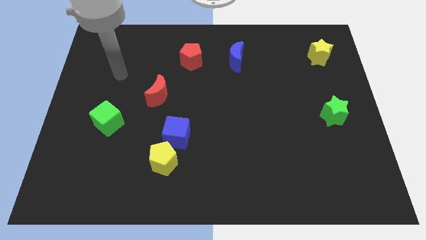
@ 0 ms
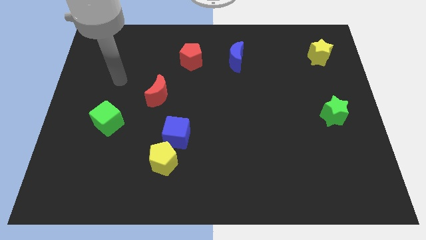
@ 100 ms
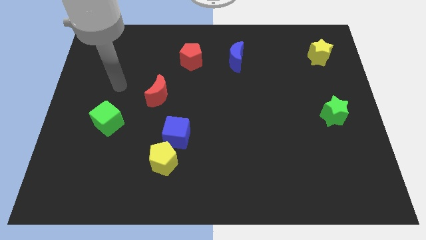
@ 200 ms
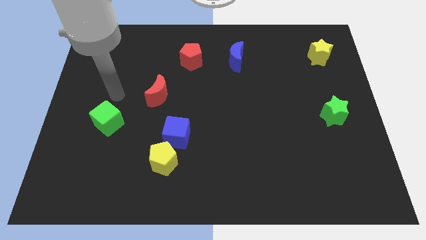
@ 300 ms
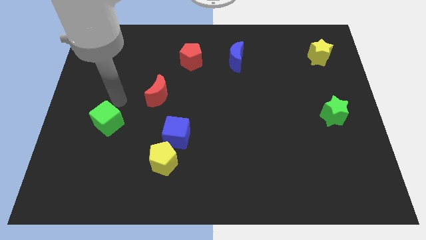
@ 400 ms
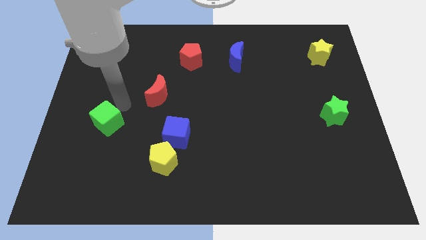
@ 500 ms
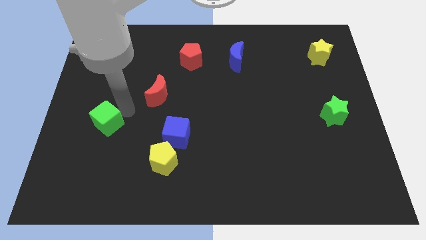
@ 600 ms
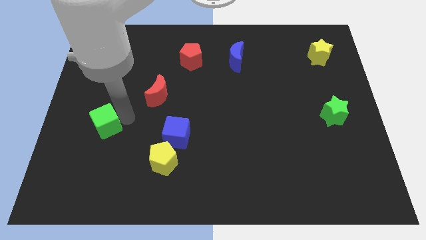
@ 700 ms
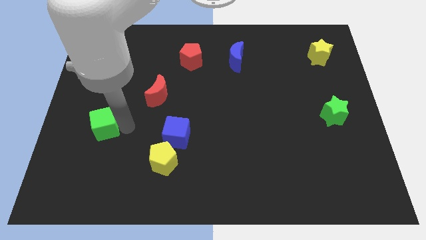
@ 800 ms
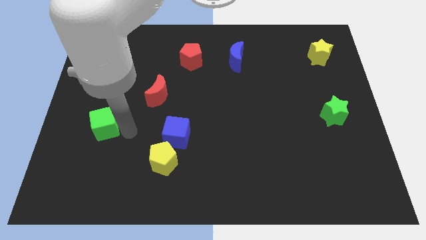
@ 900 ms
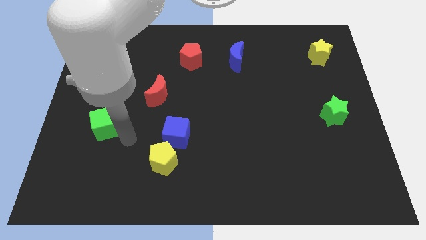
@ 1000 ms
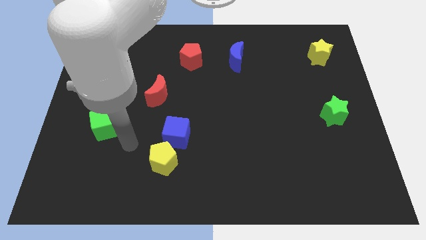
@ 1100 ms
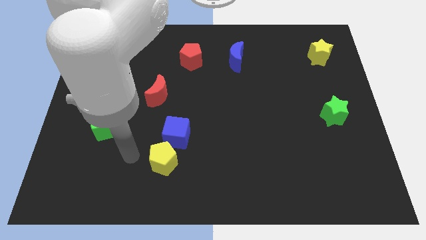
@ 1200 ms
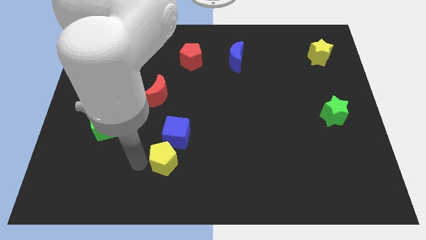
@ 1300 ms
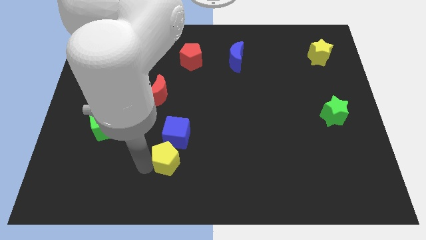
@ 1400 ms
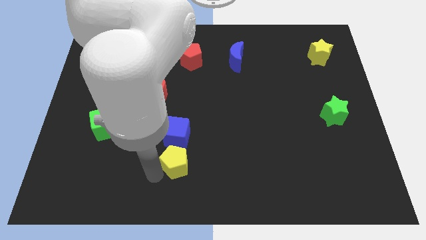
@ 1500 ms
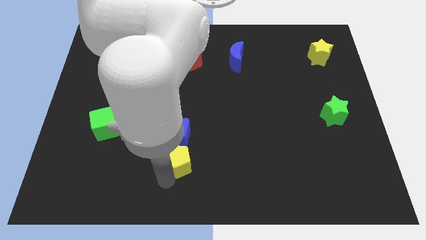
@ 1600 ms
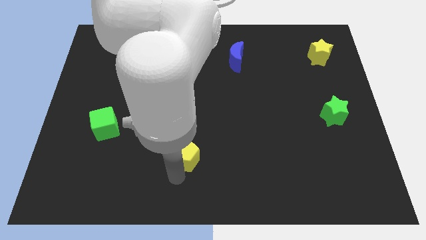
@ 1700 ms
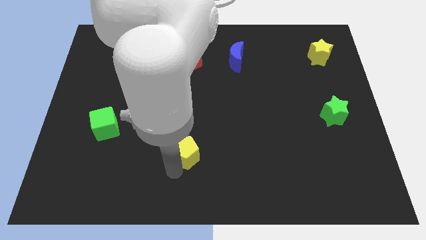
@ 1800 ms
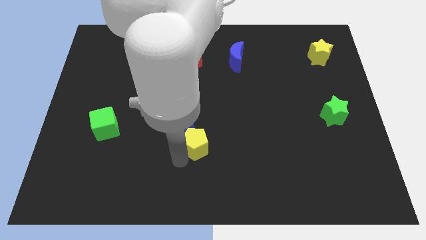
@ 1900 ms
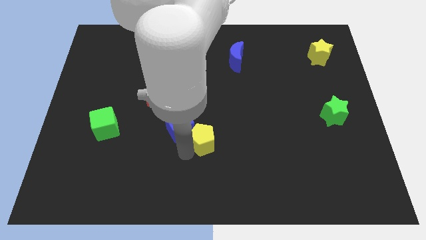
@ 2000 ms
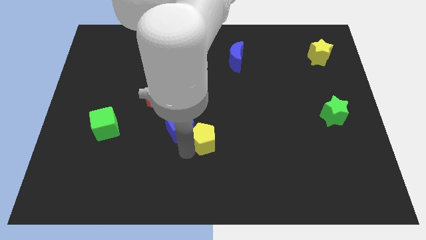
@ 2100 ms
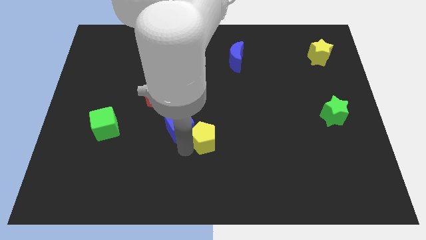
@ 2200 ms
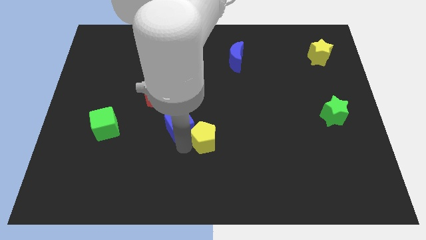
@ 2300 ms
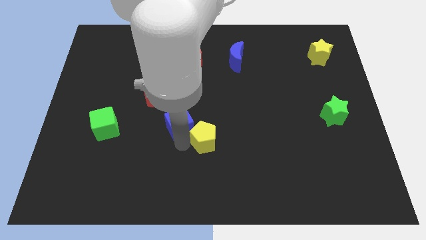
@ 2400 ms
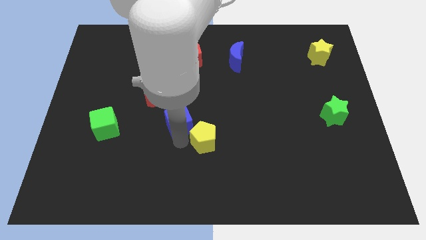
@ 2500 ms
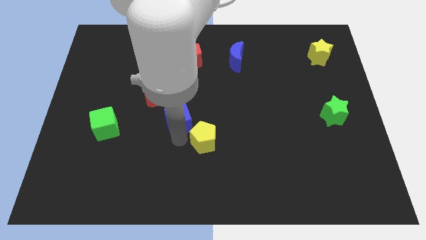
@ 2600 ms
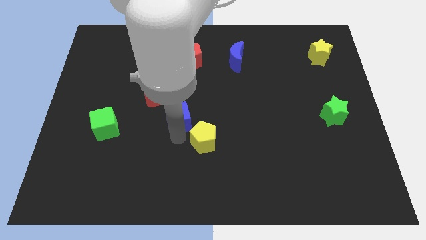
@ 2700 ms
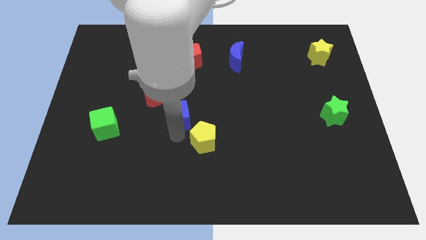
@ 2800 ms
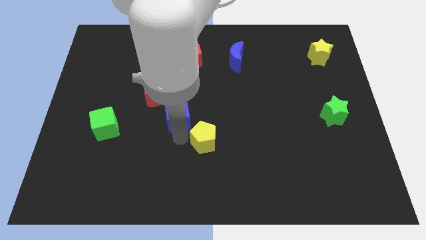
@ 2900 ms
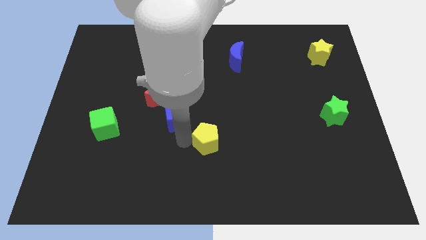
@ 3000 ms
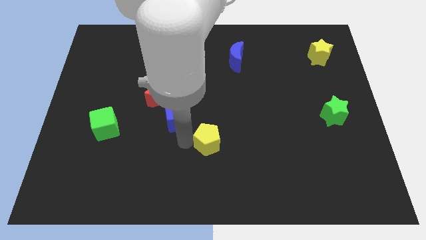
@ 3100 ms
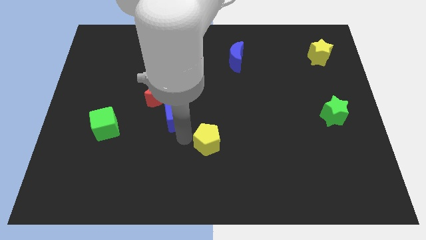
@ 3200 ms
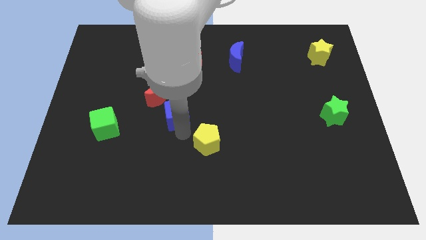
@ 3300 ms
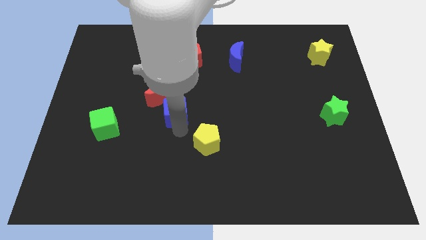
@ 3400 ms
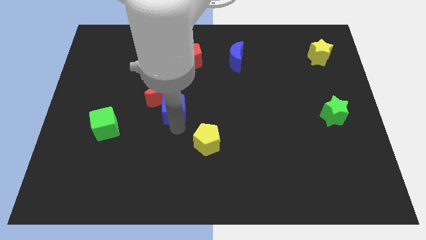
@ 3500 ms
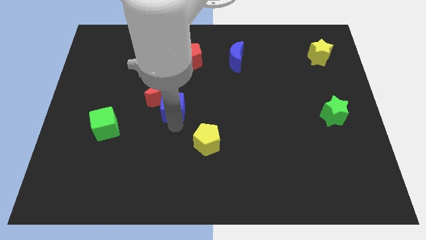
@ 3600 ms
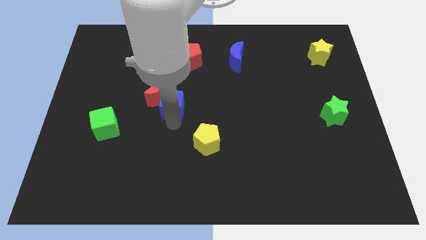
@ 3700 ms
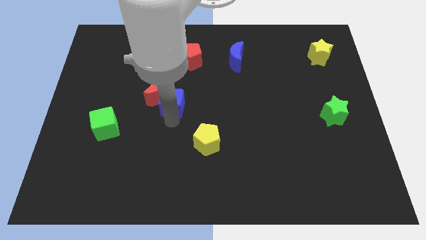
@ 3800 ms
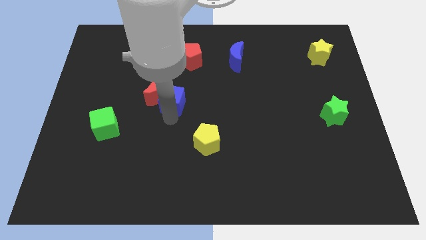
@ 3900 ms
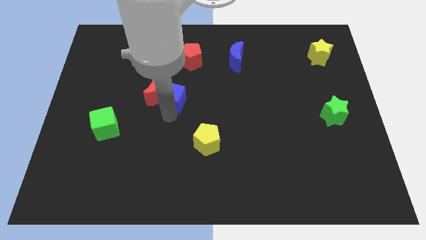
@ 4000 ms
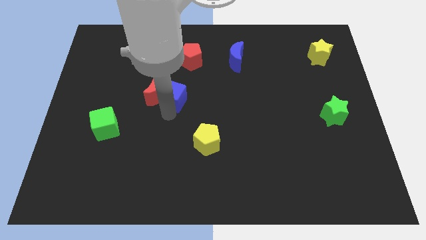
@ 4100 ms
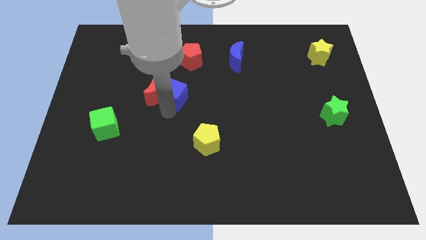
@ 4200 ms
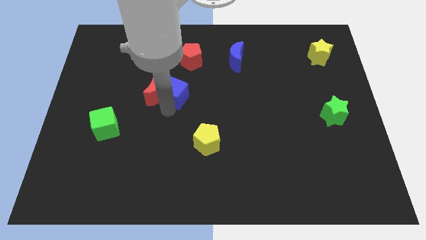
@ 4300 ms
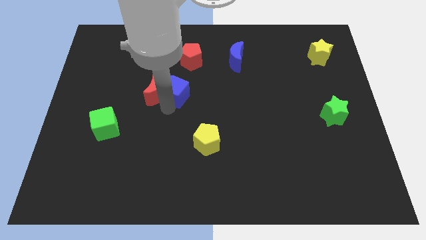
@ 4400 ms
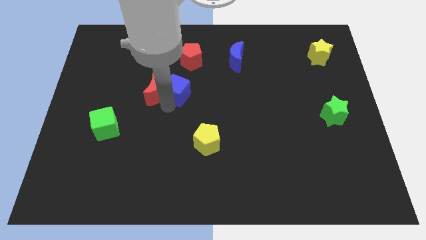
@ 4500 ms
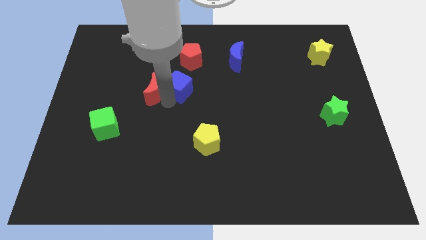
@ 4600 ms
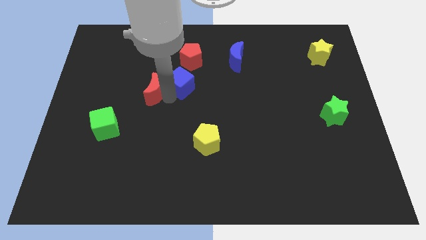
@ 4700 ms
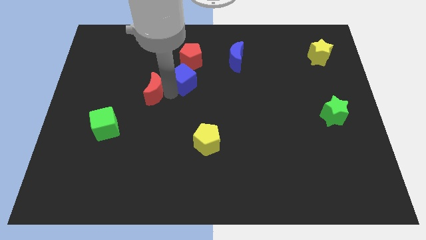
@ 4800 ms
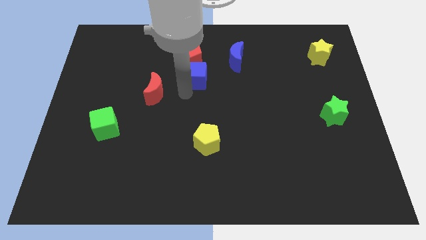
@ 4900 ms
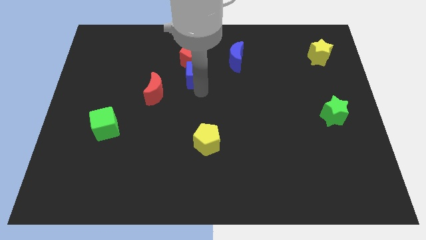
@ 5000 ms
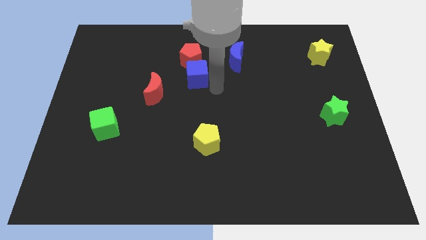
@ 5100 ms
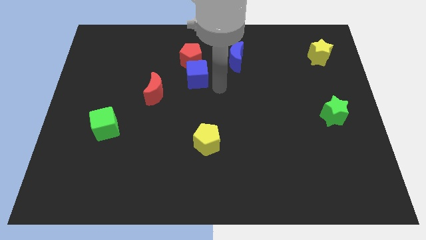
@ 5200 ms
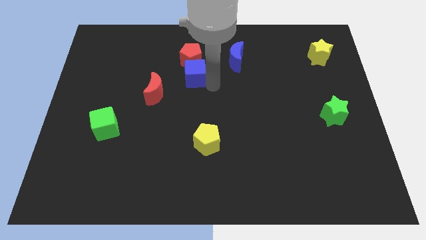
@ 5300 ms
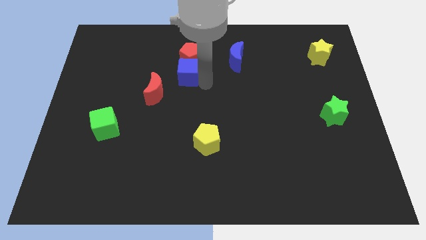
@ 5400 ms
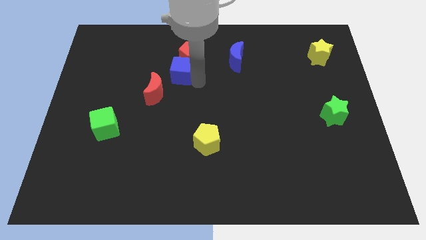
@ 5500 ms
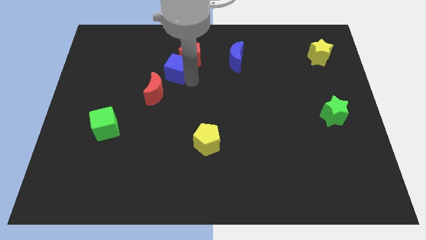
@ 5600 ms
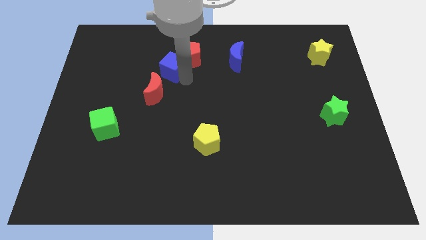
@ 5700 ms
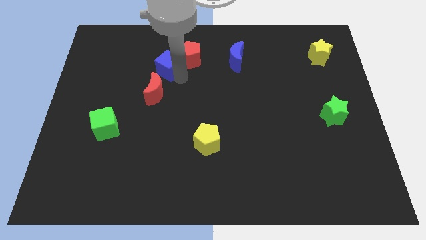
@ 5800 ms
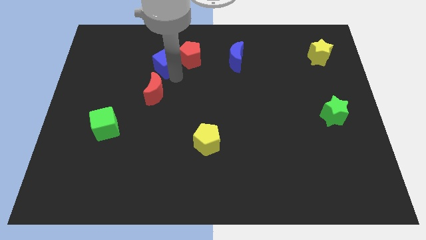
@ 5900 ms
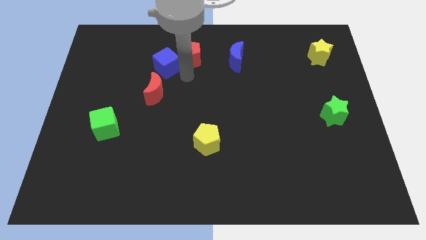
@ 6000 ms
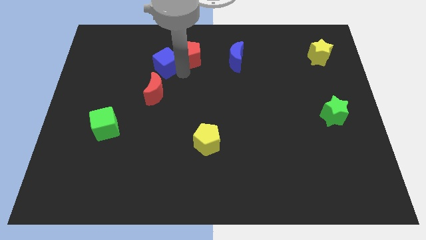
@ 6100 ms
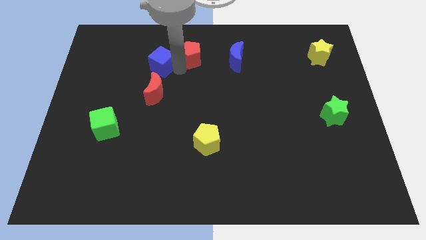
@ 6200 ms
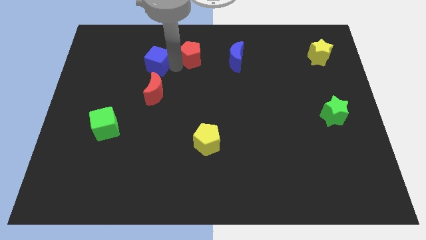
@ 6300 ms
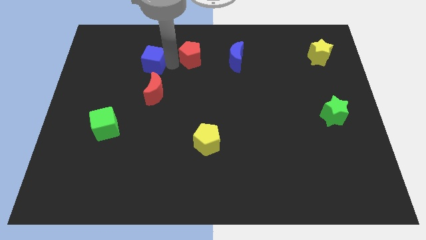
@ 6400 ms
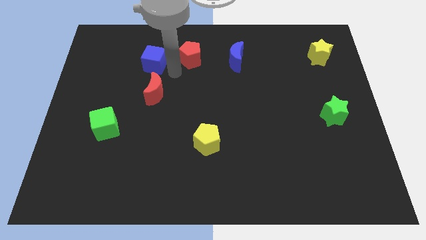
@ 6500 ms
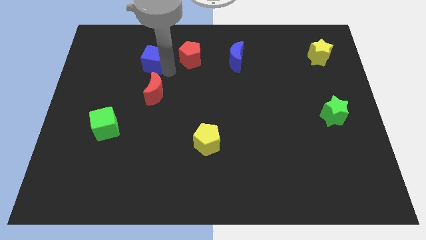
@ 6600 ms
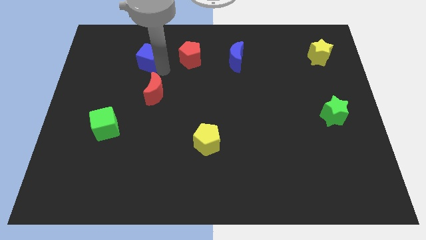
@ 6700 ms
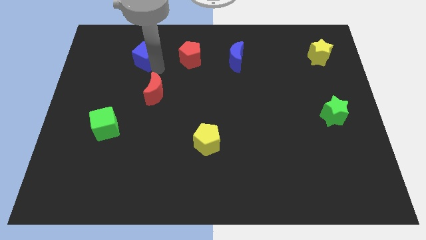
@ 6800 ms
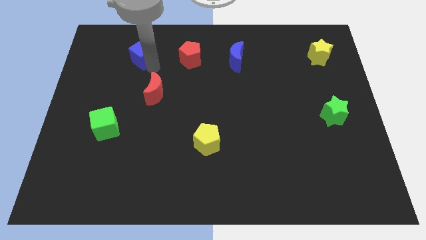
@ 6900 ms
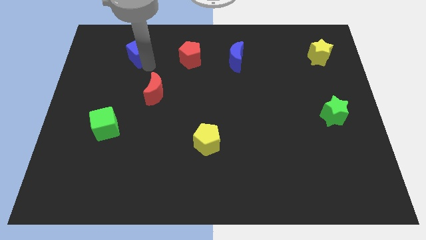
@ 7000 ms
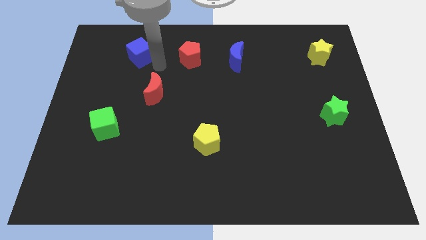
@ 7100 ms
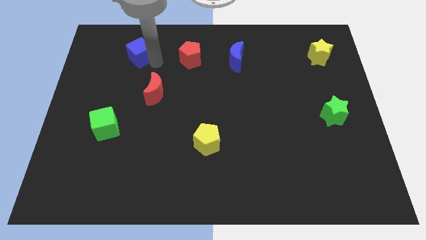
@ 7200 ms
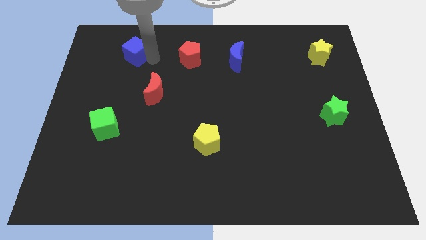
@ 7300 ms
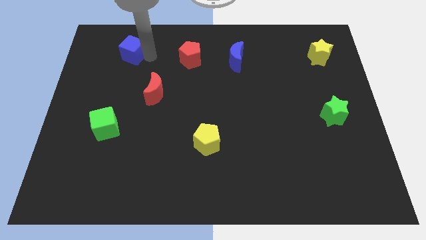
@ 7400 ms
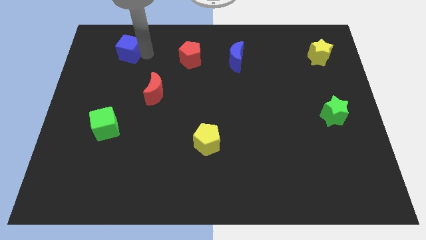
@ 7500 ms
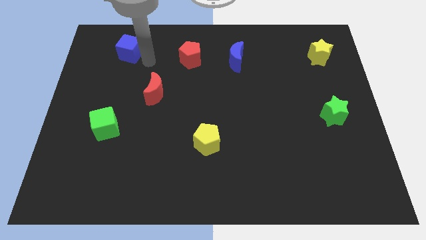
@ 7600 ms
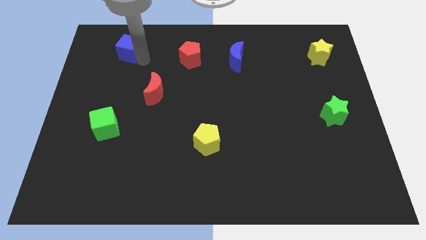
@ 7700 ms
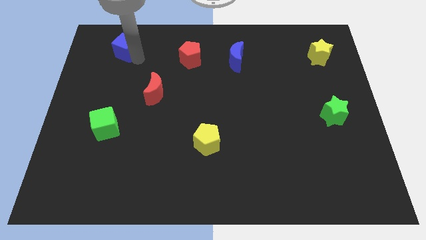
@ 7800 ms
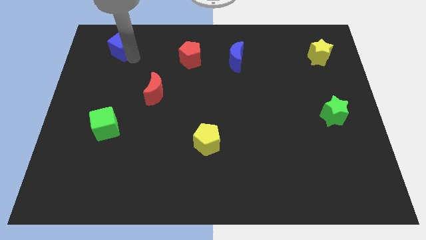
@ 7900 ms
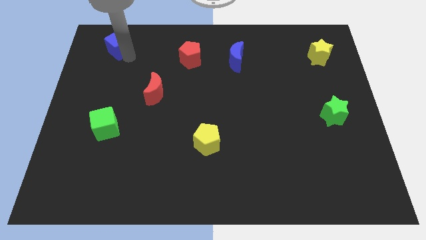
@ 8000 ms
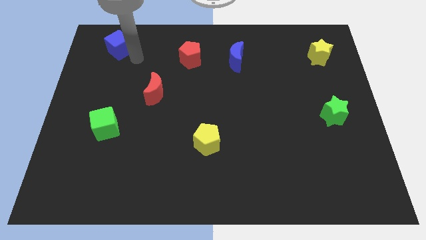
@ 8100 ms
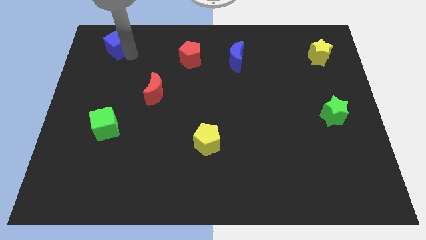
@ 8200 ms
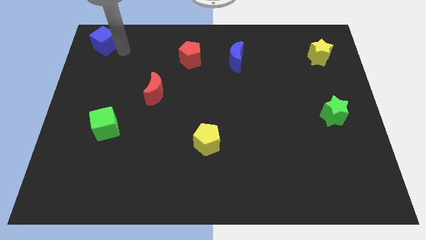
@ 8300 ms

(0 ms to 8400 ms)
slide the blue cube to the top left corner
